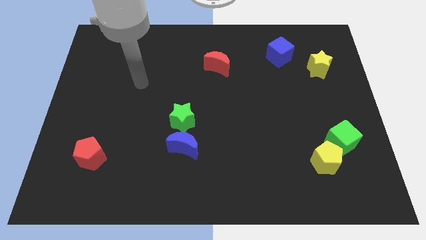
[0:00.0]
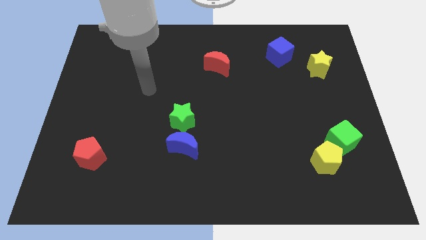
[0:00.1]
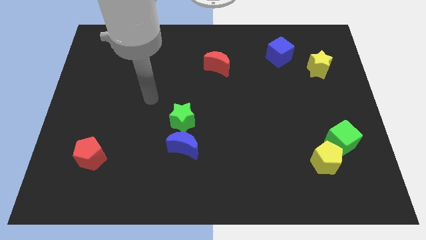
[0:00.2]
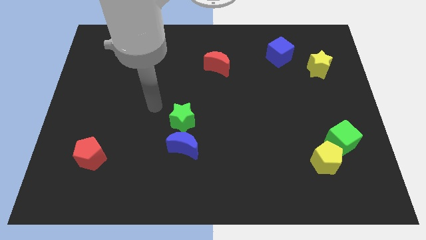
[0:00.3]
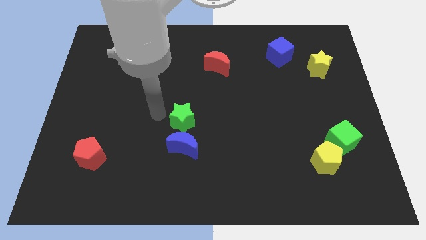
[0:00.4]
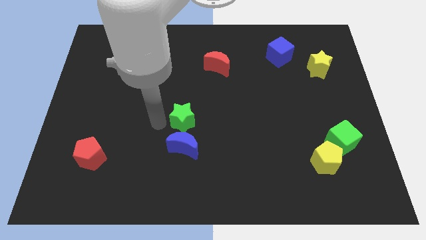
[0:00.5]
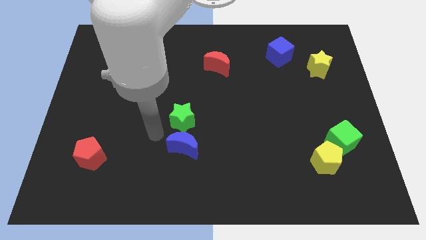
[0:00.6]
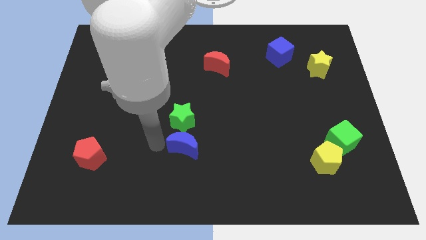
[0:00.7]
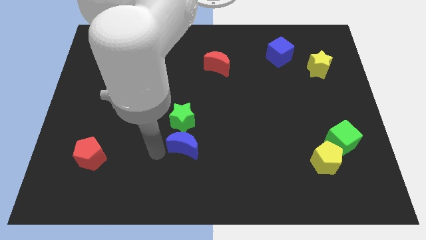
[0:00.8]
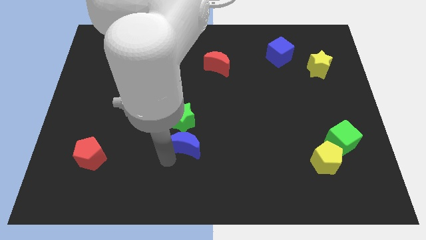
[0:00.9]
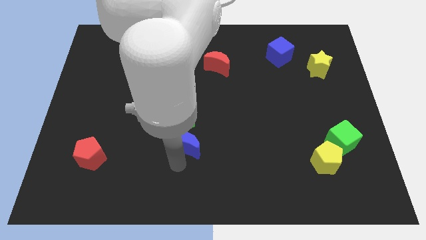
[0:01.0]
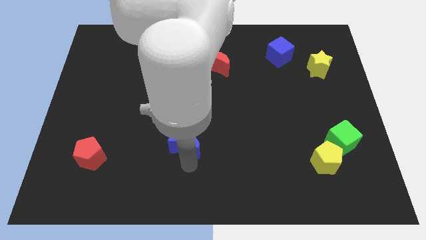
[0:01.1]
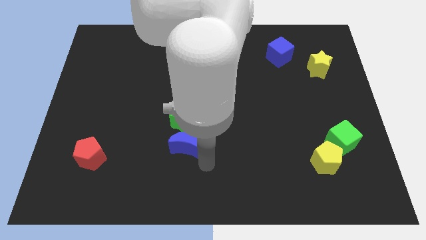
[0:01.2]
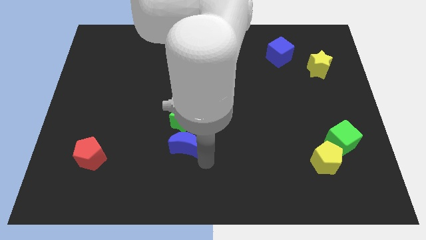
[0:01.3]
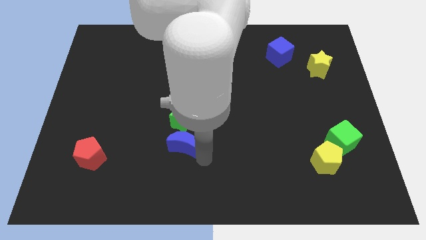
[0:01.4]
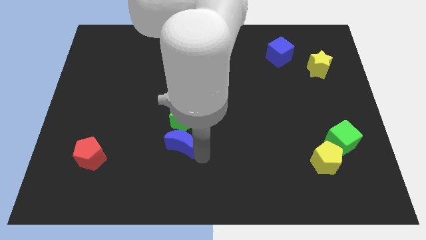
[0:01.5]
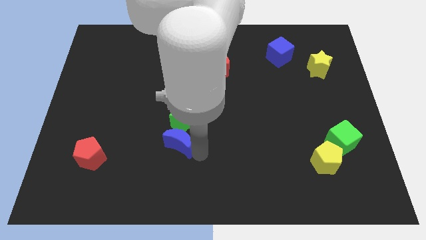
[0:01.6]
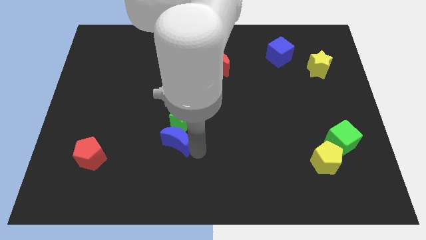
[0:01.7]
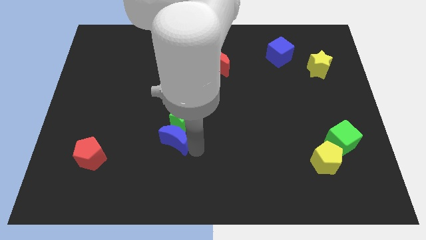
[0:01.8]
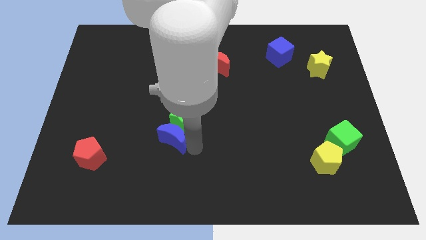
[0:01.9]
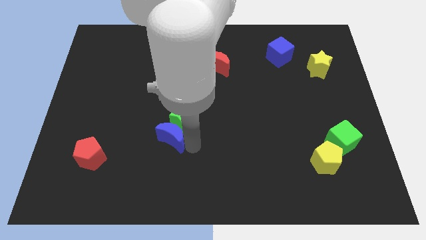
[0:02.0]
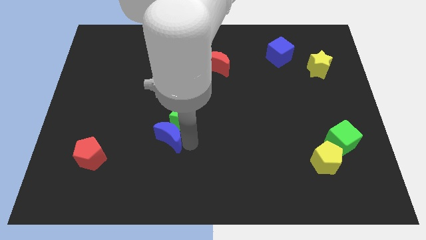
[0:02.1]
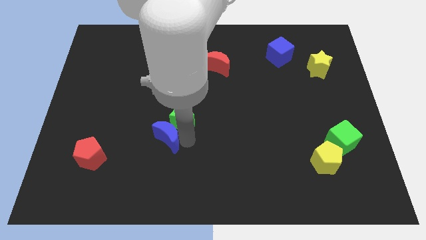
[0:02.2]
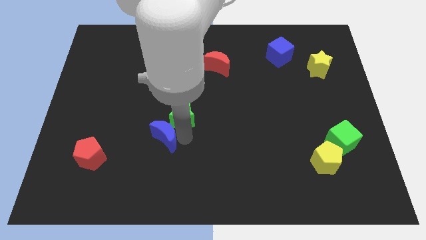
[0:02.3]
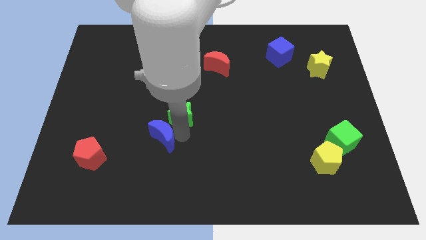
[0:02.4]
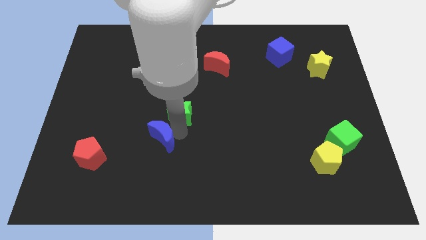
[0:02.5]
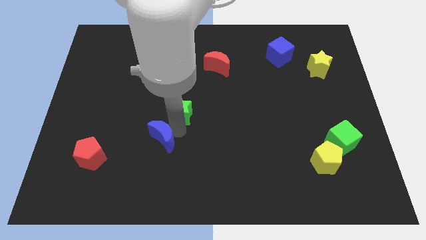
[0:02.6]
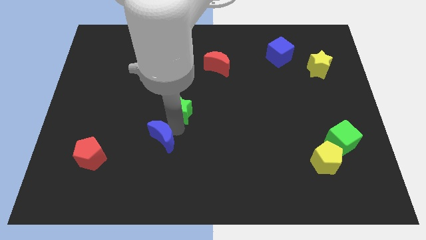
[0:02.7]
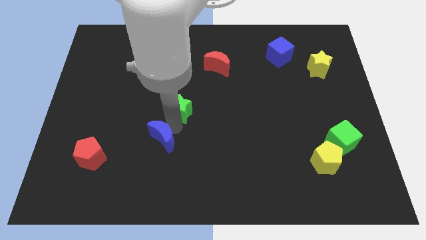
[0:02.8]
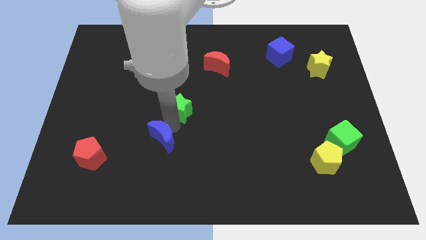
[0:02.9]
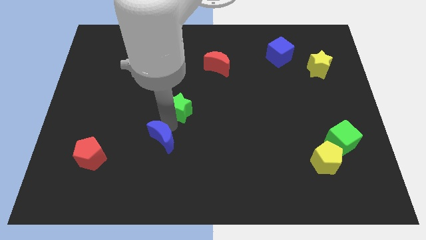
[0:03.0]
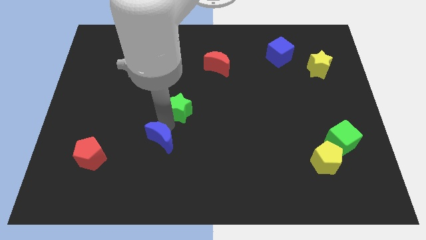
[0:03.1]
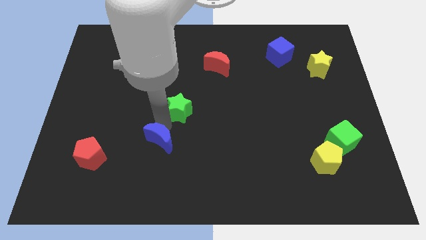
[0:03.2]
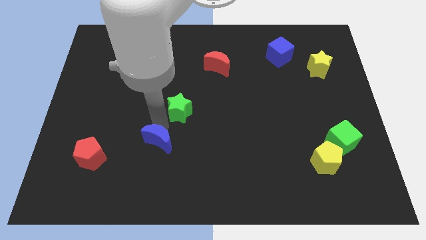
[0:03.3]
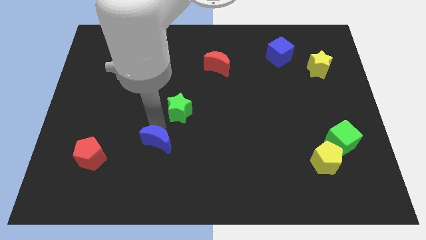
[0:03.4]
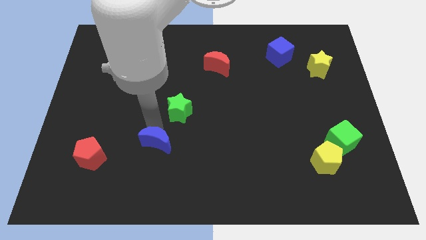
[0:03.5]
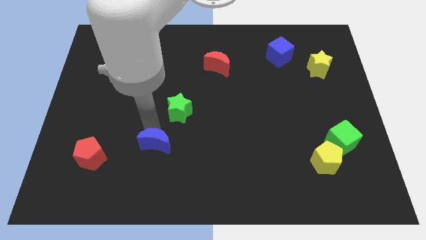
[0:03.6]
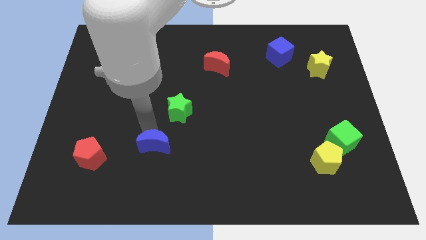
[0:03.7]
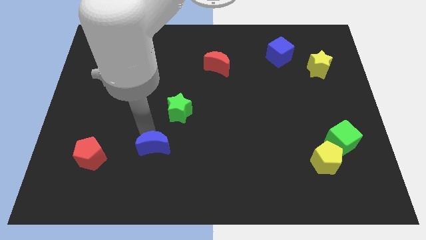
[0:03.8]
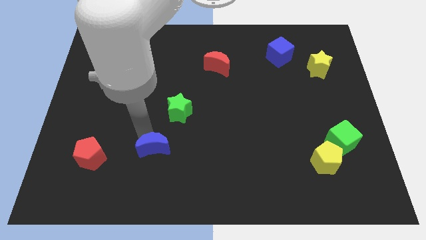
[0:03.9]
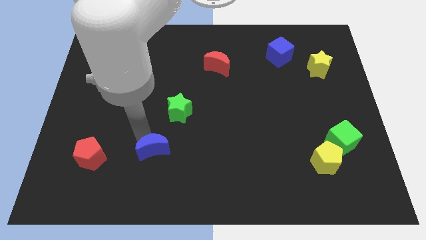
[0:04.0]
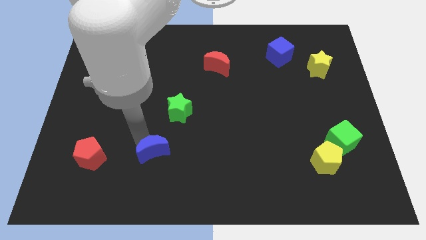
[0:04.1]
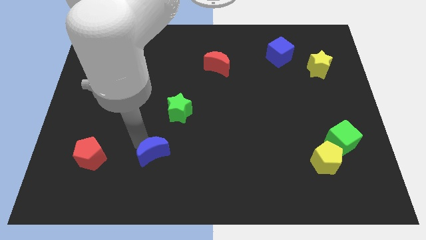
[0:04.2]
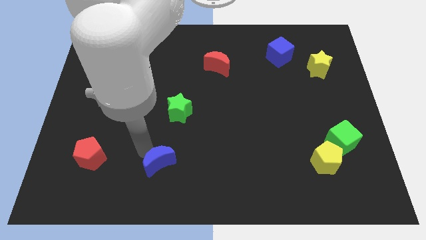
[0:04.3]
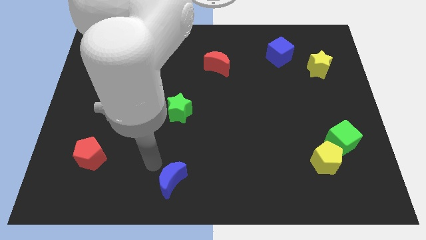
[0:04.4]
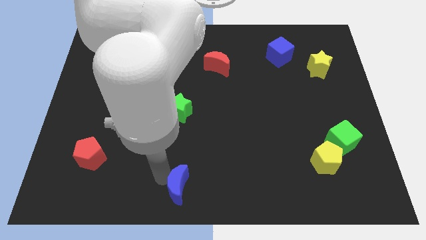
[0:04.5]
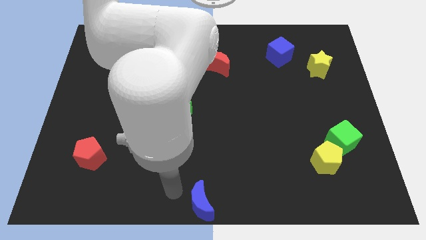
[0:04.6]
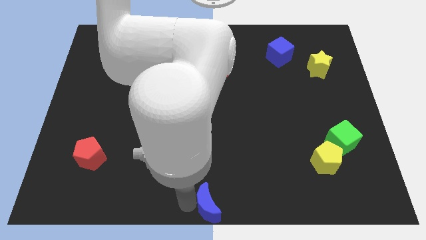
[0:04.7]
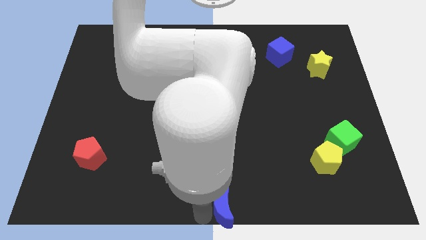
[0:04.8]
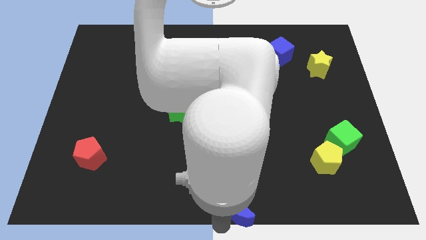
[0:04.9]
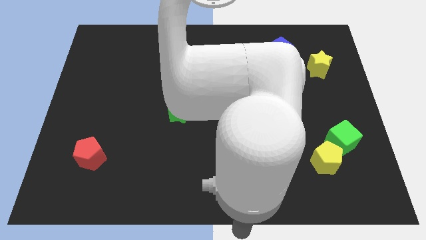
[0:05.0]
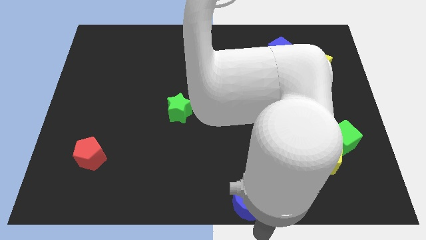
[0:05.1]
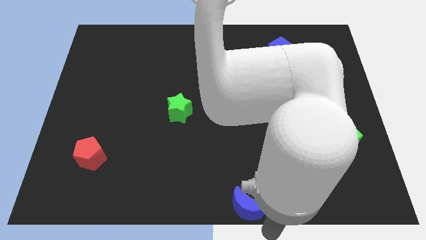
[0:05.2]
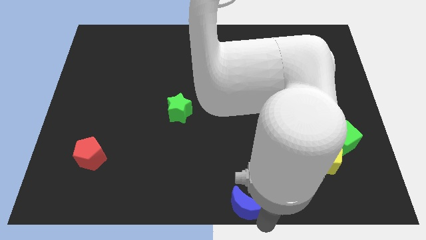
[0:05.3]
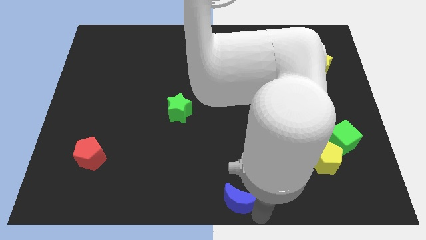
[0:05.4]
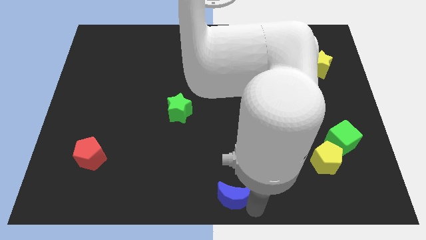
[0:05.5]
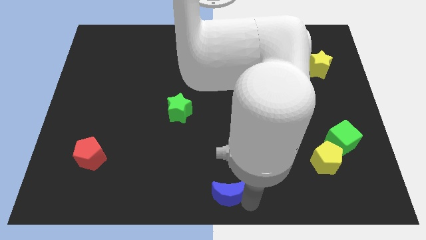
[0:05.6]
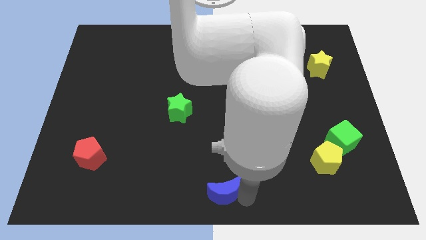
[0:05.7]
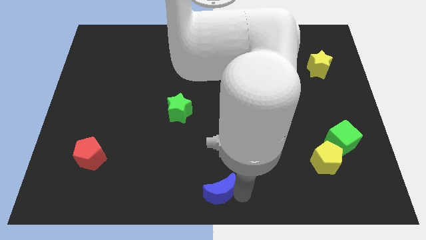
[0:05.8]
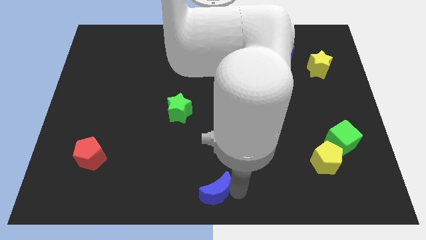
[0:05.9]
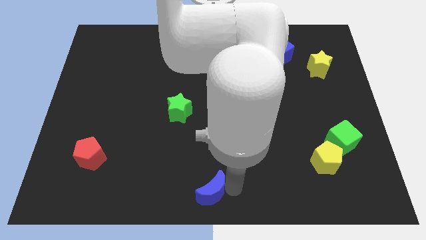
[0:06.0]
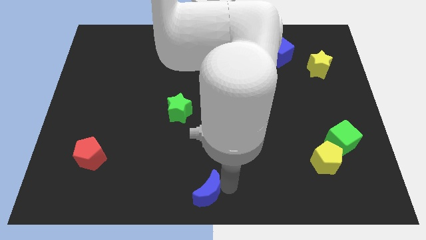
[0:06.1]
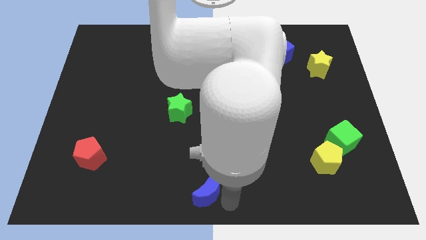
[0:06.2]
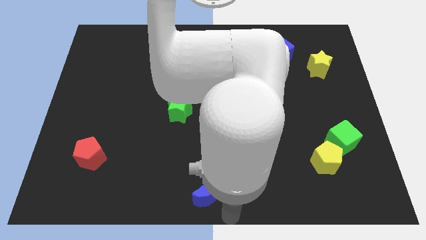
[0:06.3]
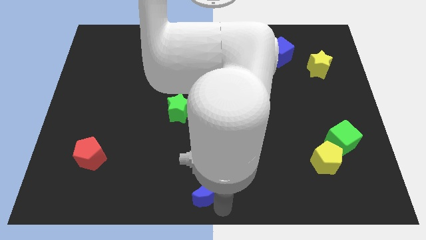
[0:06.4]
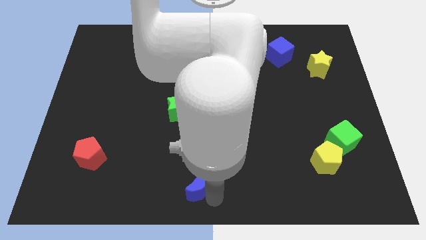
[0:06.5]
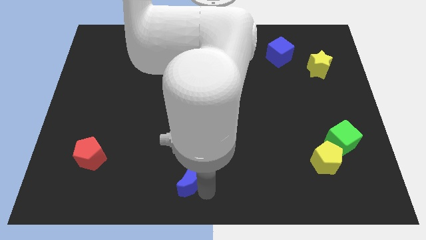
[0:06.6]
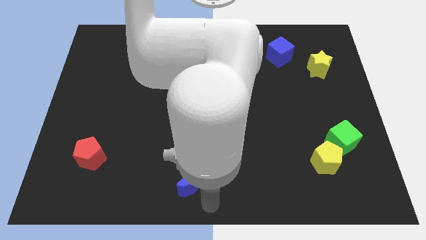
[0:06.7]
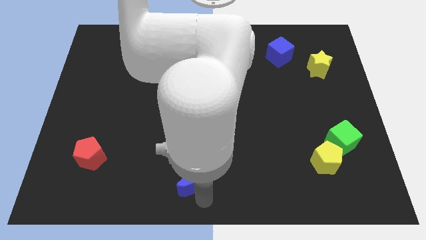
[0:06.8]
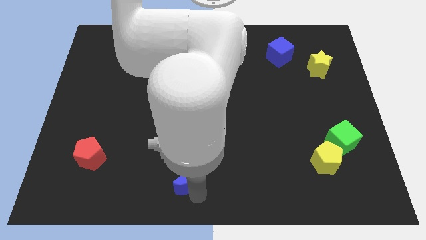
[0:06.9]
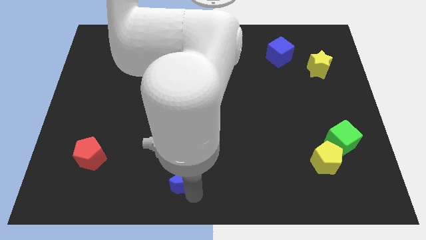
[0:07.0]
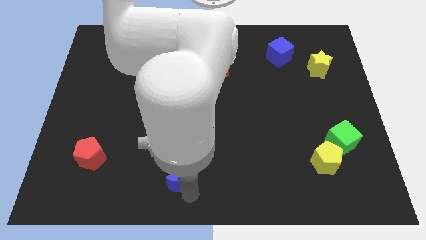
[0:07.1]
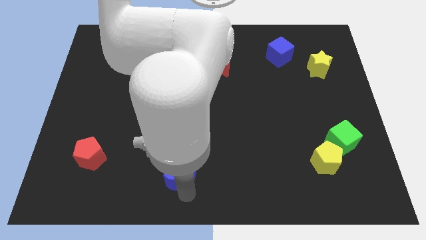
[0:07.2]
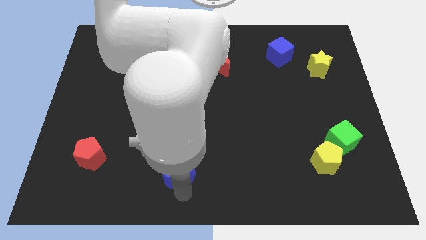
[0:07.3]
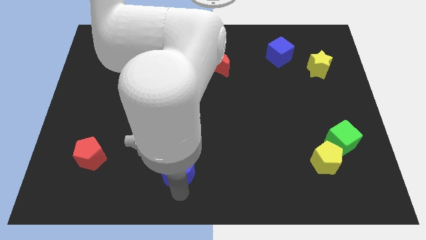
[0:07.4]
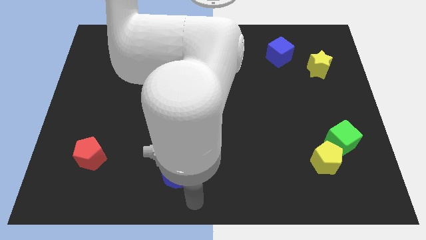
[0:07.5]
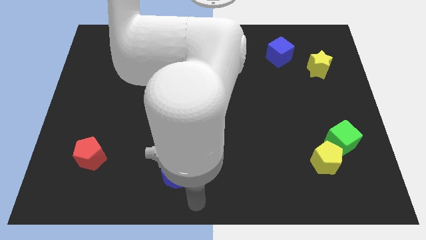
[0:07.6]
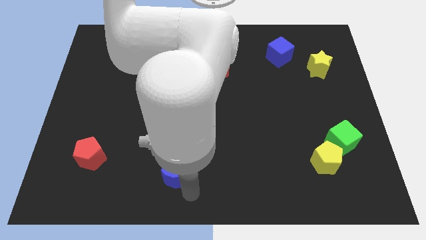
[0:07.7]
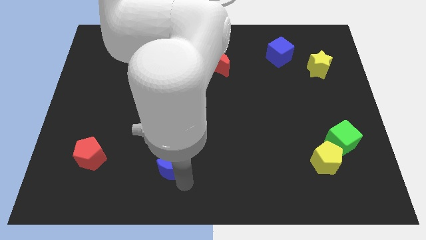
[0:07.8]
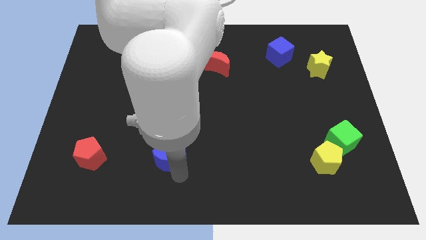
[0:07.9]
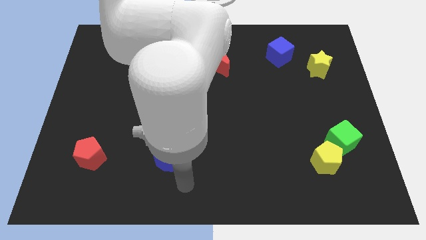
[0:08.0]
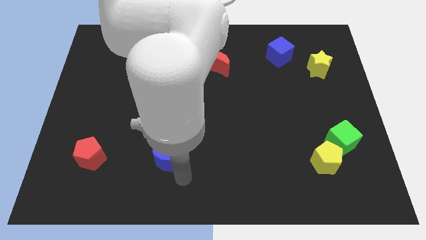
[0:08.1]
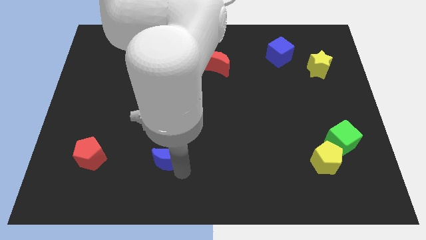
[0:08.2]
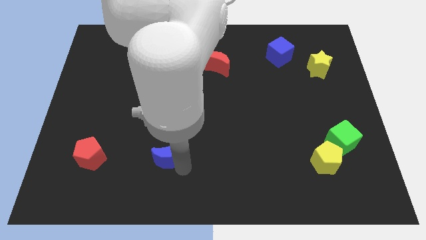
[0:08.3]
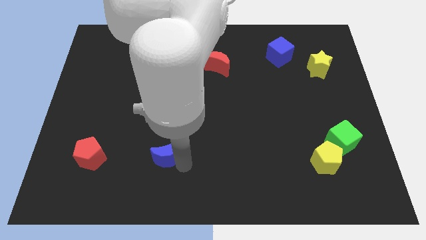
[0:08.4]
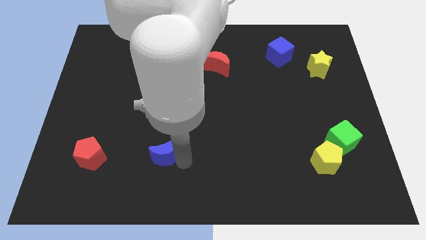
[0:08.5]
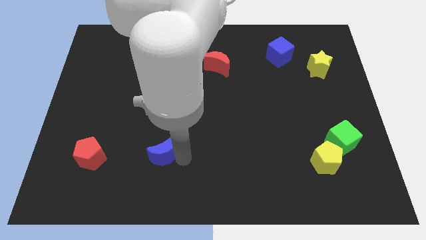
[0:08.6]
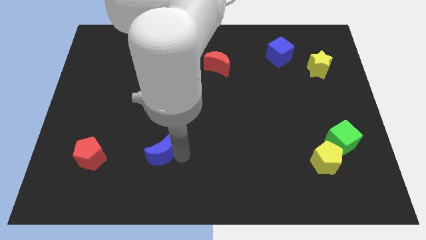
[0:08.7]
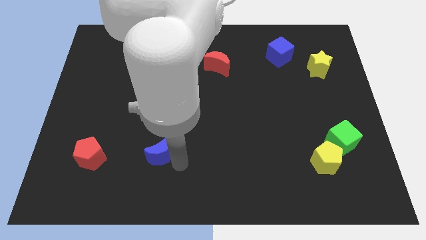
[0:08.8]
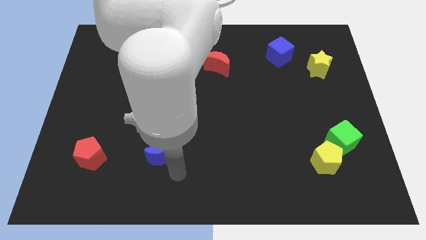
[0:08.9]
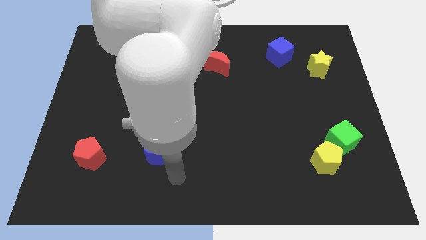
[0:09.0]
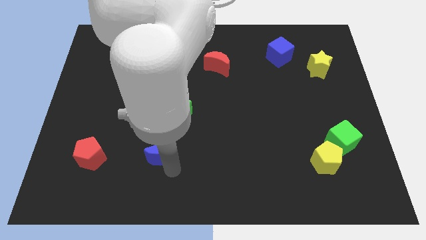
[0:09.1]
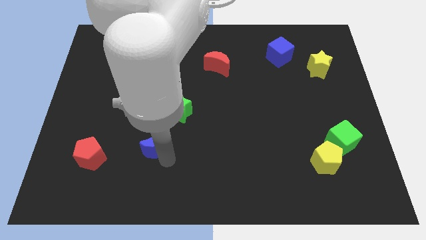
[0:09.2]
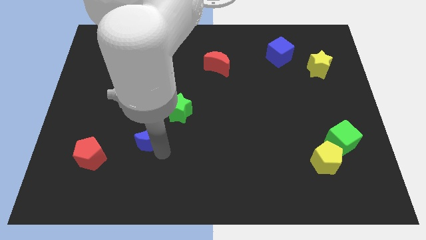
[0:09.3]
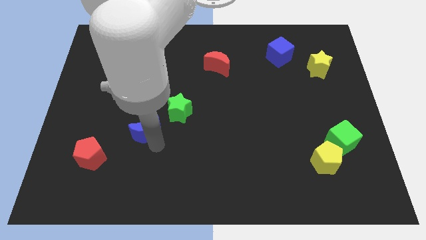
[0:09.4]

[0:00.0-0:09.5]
move the blue moon a little upwards and then to the left
